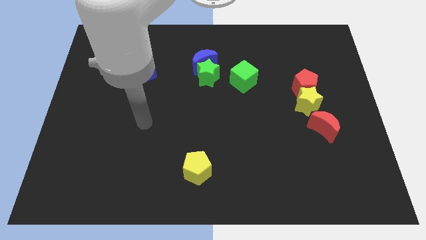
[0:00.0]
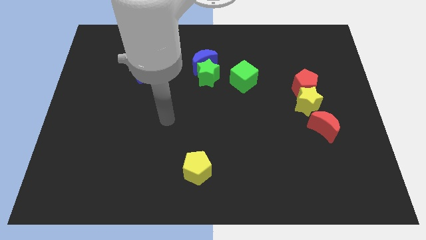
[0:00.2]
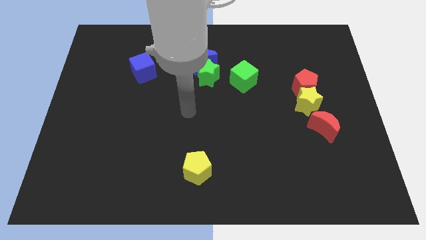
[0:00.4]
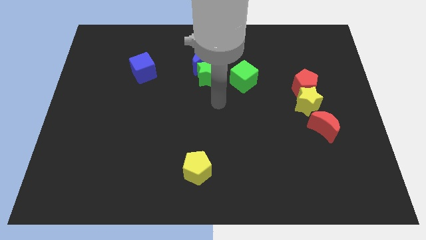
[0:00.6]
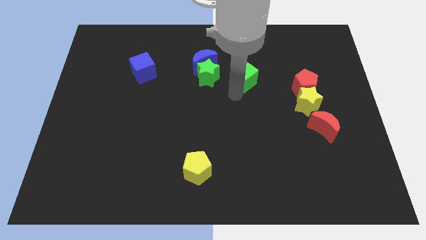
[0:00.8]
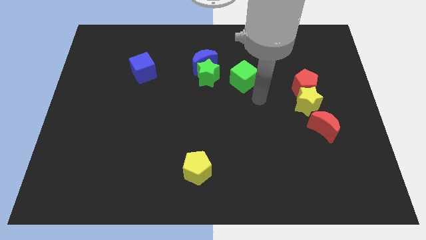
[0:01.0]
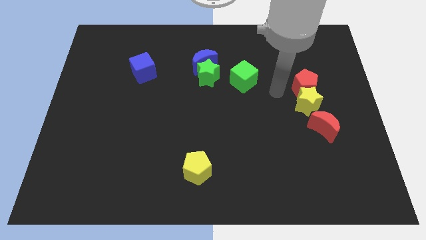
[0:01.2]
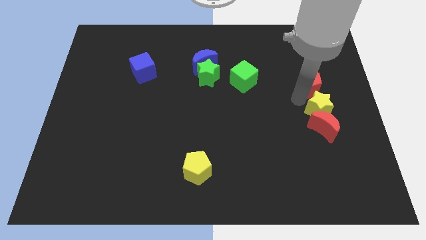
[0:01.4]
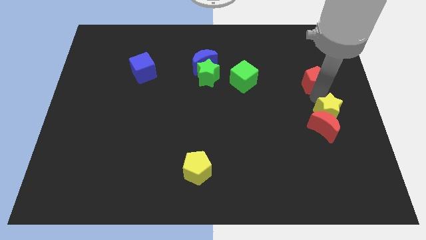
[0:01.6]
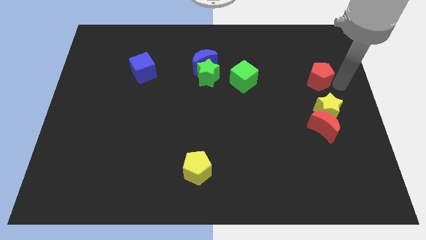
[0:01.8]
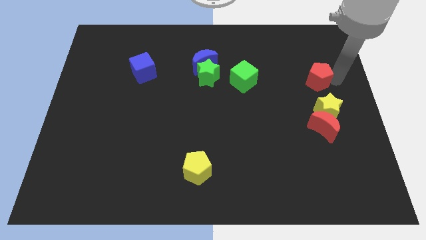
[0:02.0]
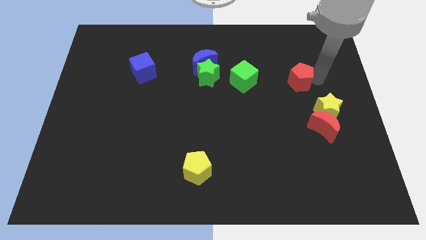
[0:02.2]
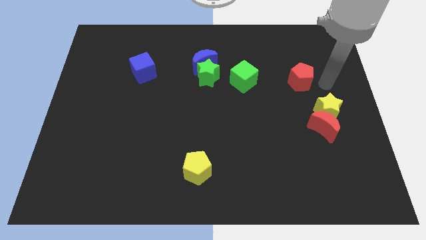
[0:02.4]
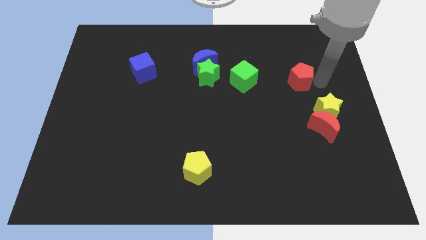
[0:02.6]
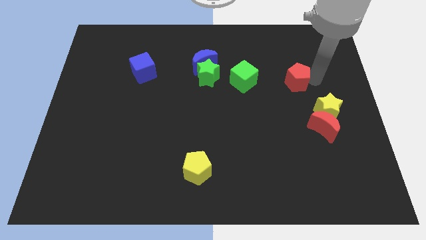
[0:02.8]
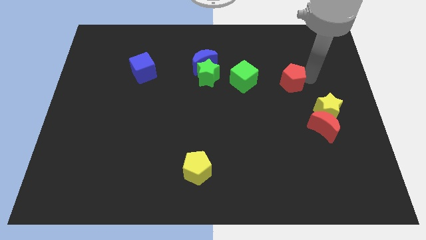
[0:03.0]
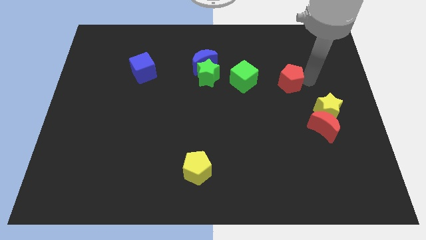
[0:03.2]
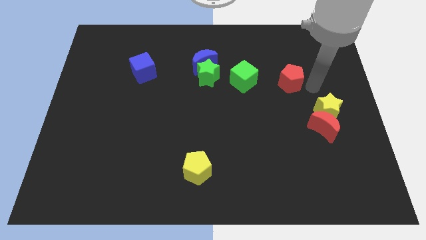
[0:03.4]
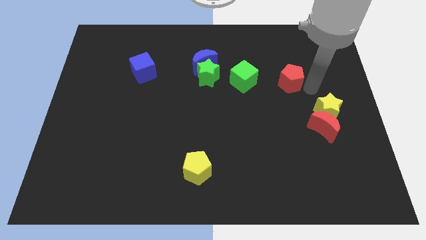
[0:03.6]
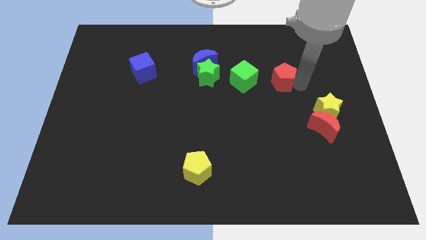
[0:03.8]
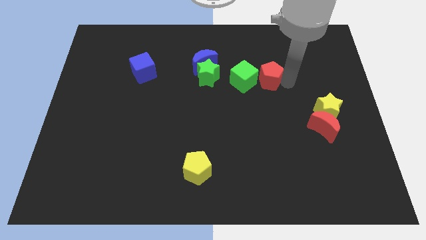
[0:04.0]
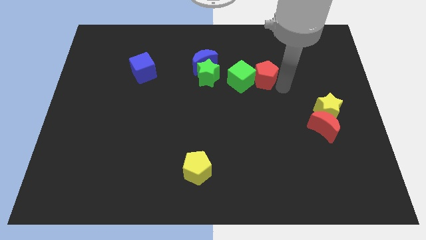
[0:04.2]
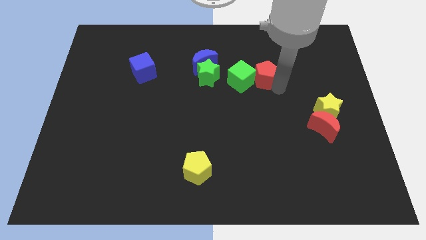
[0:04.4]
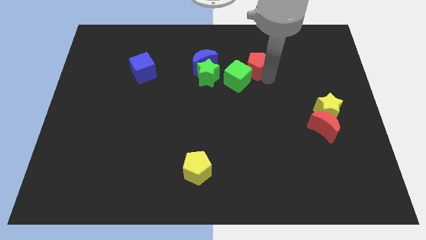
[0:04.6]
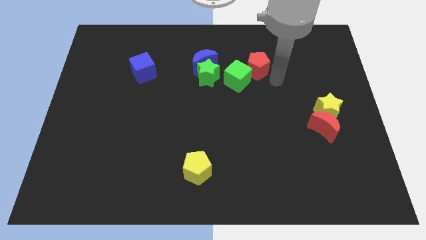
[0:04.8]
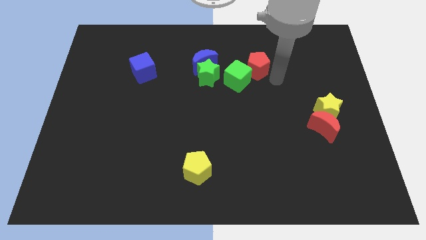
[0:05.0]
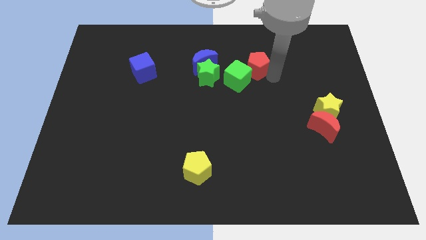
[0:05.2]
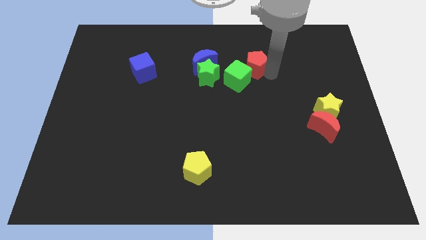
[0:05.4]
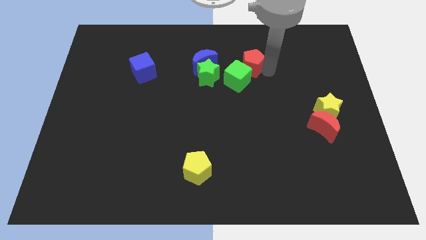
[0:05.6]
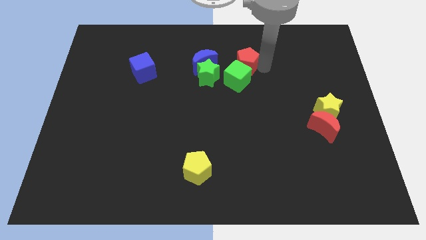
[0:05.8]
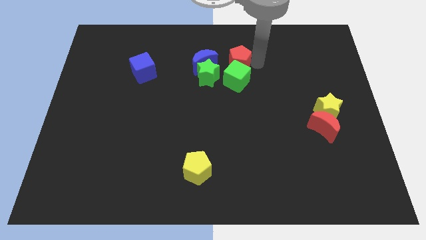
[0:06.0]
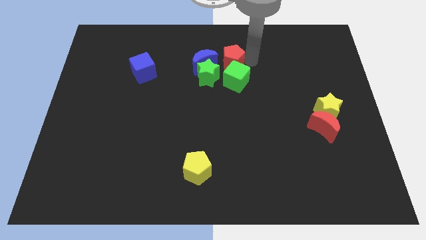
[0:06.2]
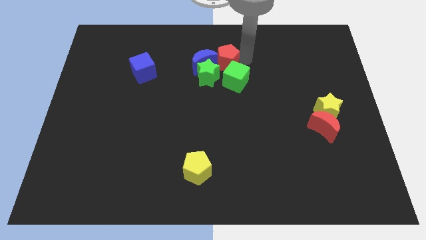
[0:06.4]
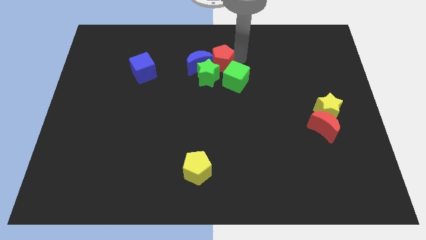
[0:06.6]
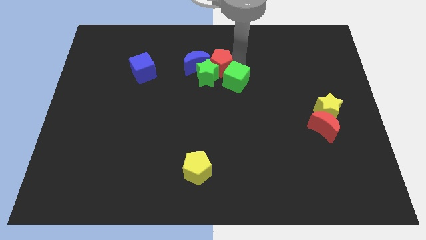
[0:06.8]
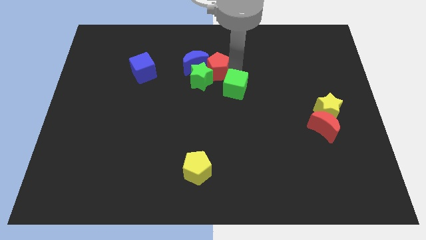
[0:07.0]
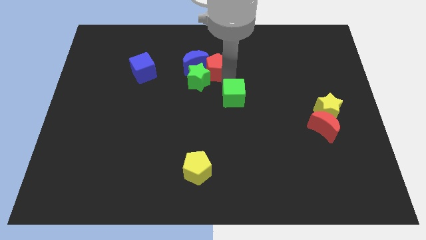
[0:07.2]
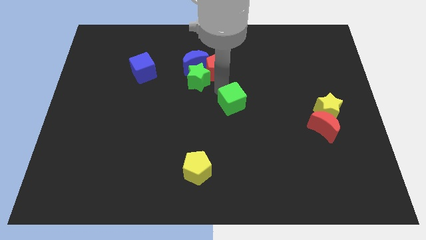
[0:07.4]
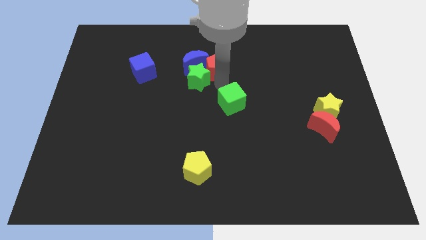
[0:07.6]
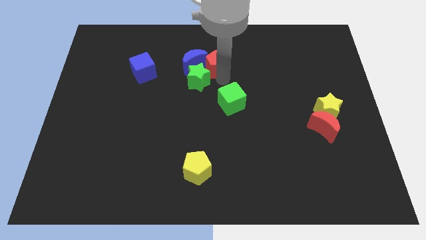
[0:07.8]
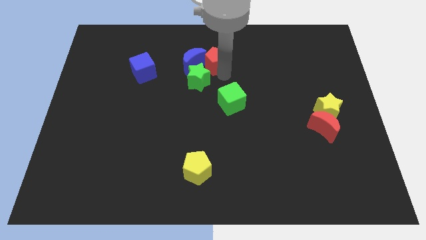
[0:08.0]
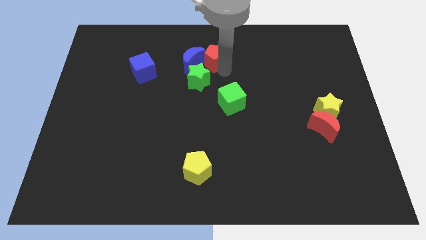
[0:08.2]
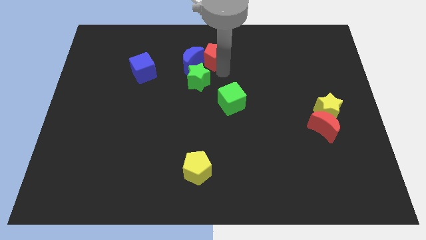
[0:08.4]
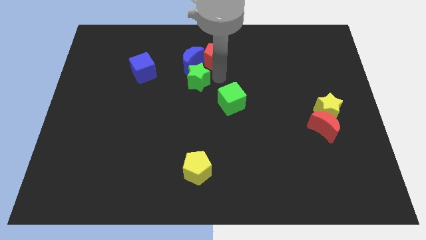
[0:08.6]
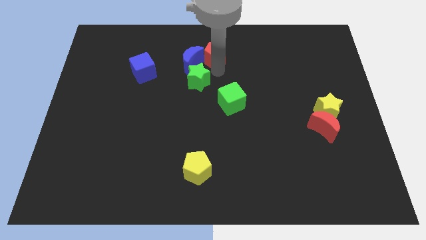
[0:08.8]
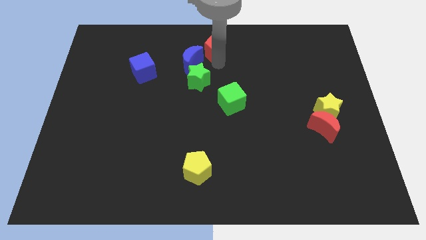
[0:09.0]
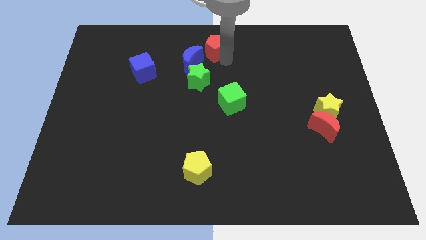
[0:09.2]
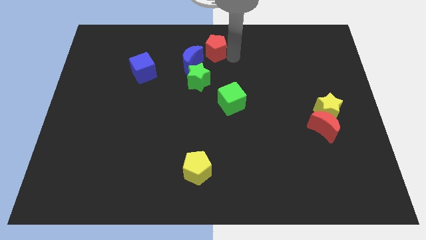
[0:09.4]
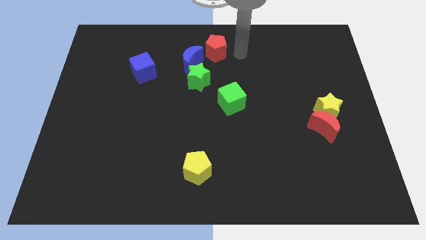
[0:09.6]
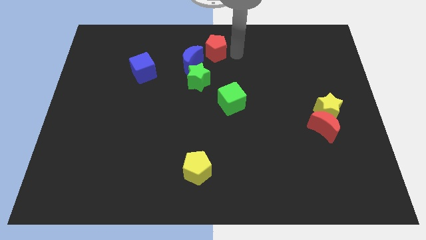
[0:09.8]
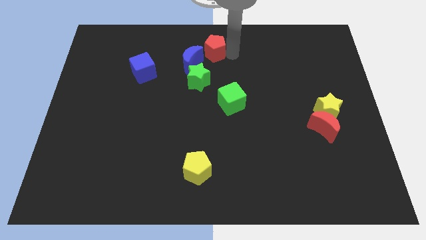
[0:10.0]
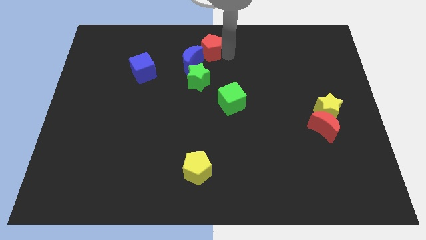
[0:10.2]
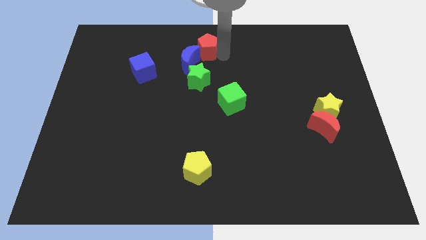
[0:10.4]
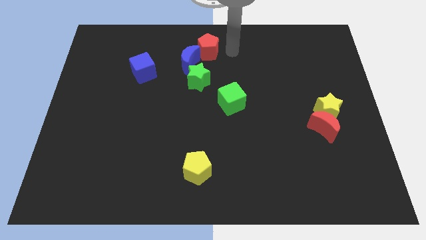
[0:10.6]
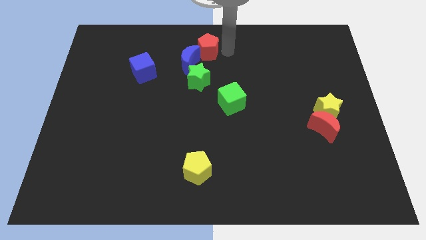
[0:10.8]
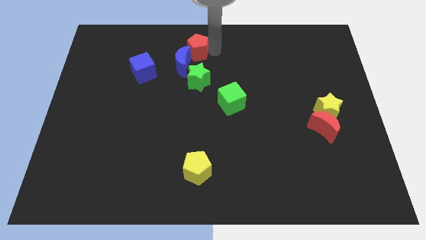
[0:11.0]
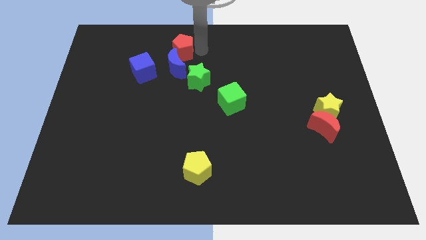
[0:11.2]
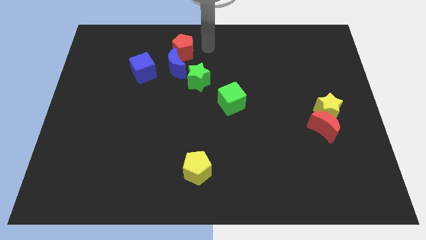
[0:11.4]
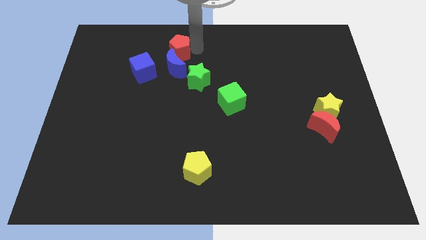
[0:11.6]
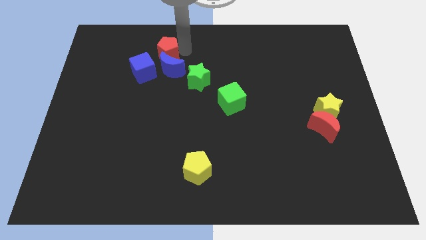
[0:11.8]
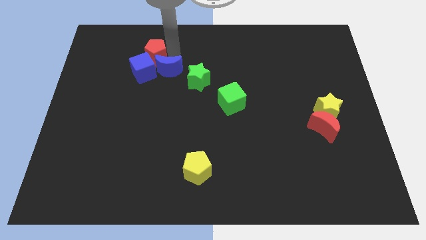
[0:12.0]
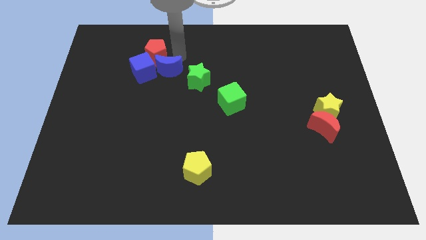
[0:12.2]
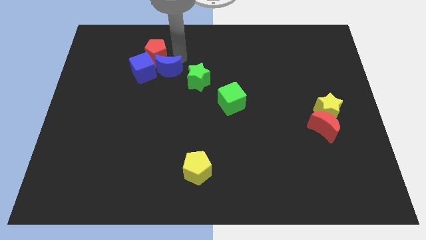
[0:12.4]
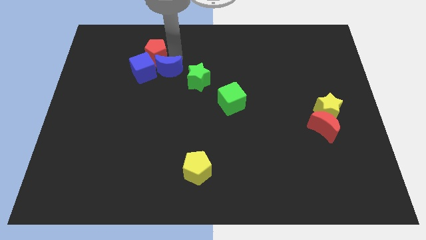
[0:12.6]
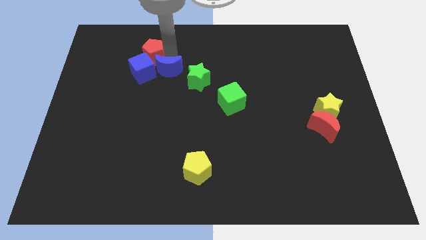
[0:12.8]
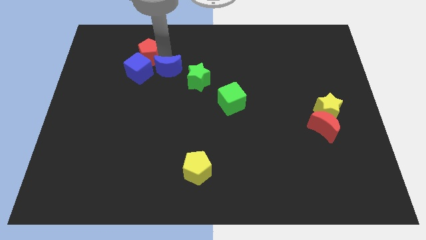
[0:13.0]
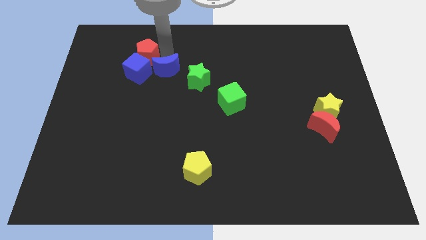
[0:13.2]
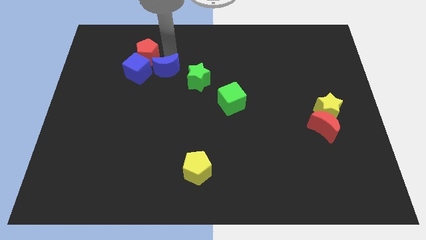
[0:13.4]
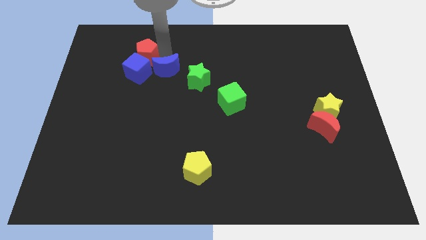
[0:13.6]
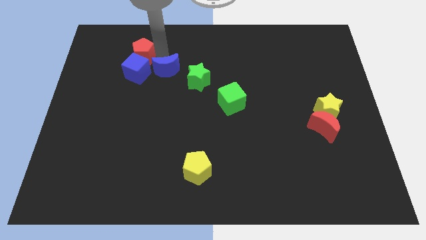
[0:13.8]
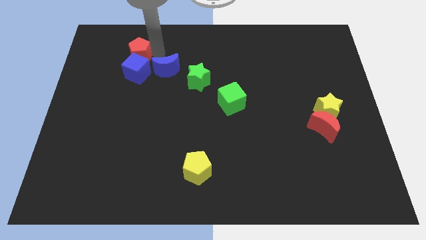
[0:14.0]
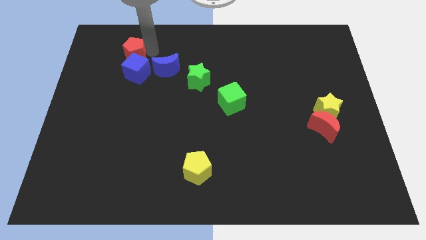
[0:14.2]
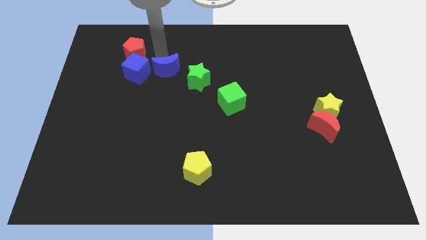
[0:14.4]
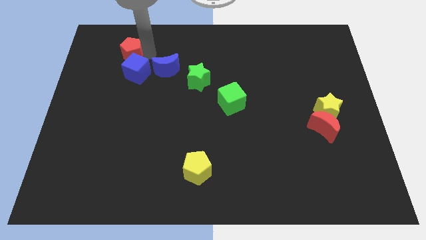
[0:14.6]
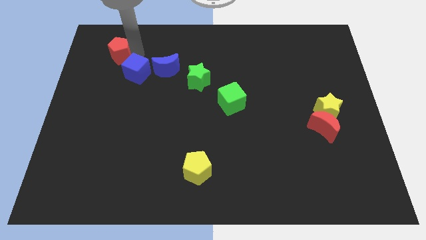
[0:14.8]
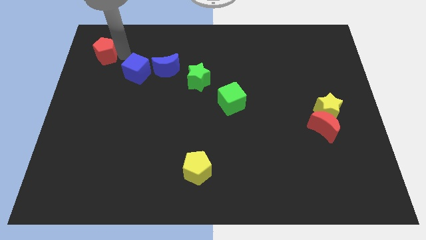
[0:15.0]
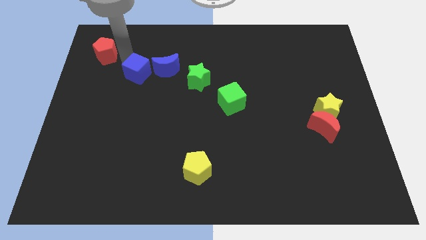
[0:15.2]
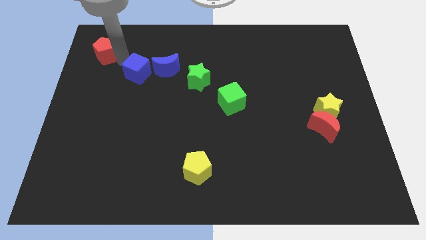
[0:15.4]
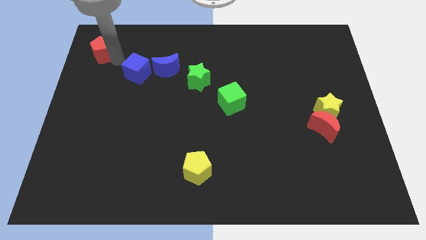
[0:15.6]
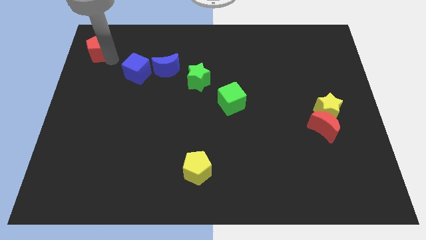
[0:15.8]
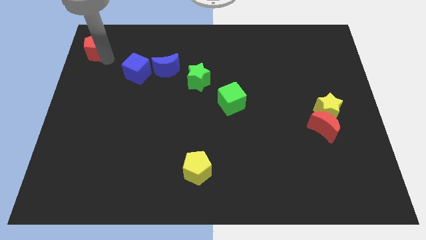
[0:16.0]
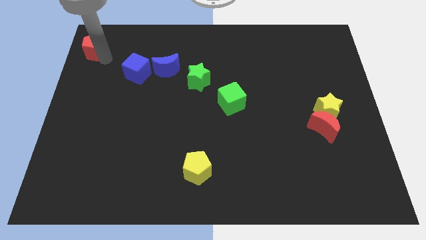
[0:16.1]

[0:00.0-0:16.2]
move the red pentagon to the upper left corner
